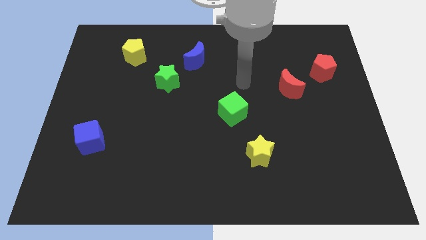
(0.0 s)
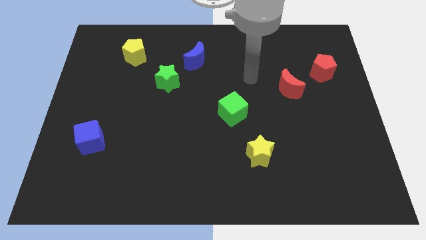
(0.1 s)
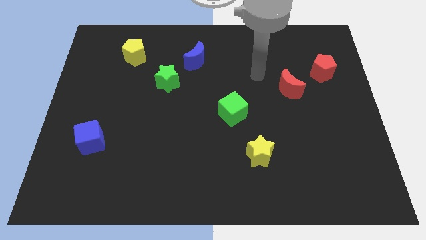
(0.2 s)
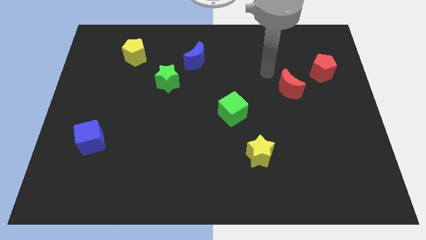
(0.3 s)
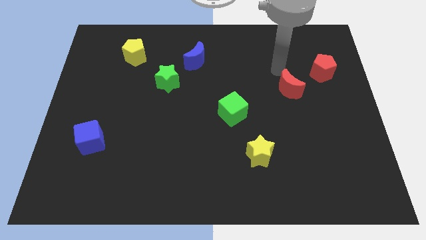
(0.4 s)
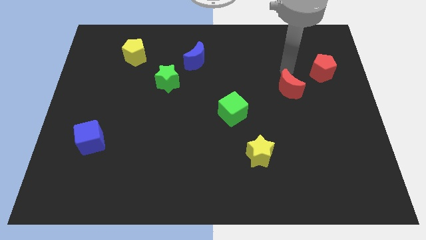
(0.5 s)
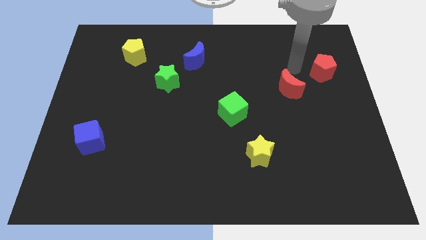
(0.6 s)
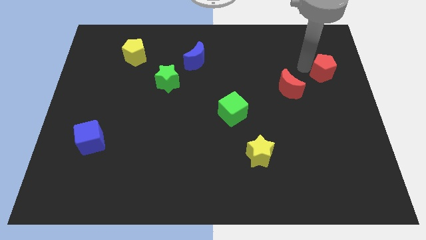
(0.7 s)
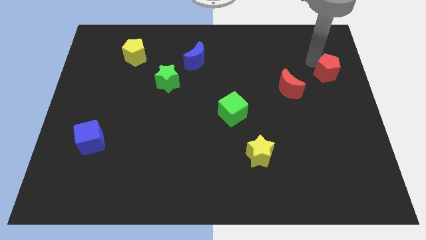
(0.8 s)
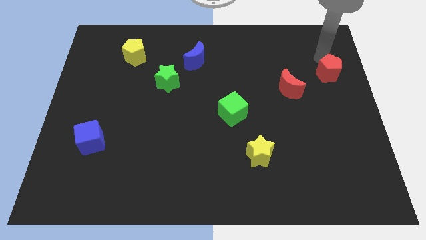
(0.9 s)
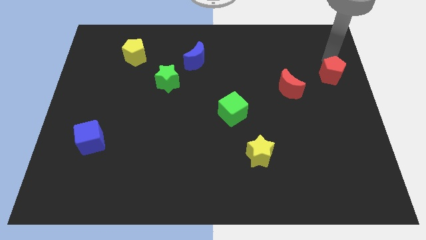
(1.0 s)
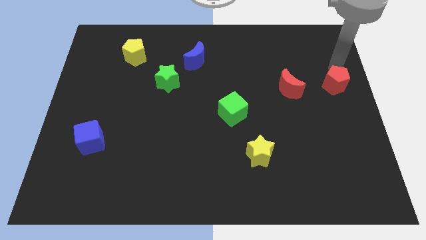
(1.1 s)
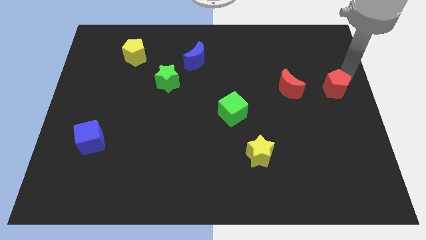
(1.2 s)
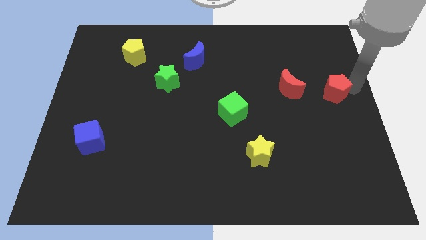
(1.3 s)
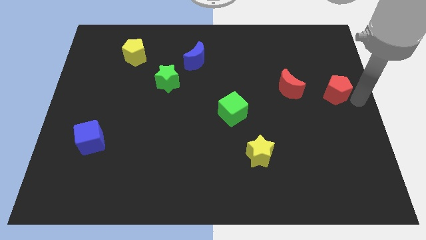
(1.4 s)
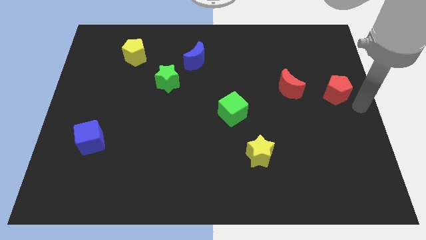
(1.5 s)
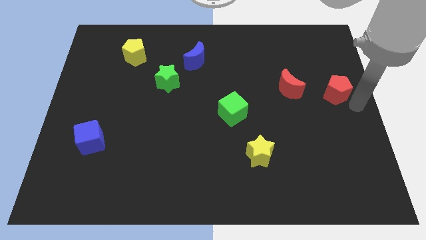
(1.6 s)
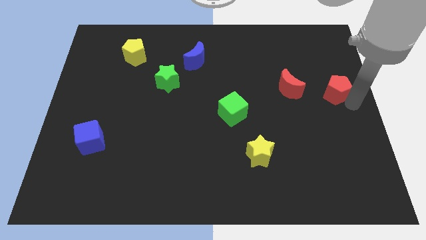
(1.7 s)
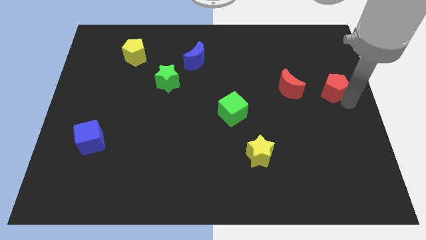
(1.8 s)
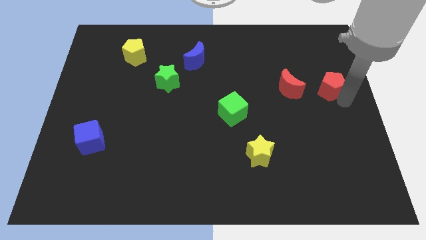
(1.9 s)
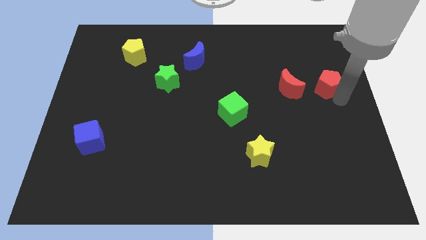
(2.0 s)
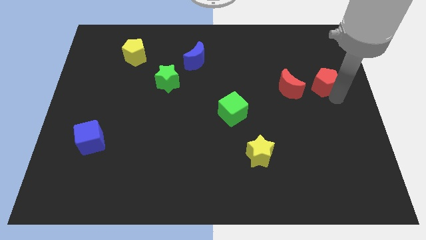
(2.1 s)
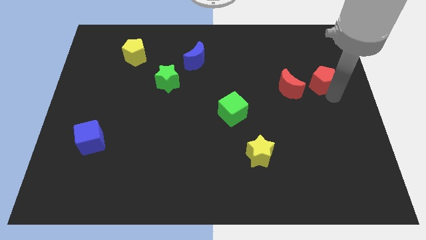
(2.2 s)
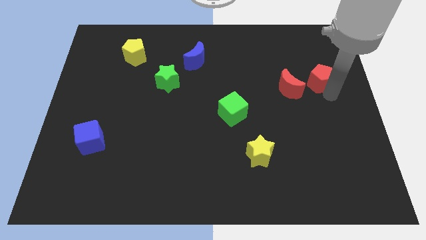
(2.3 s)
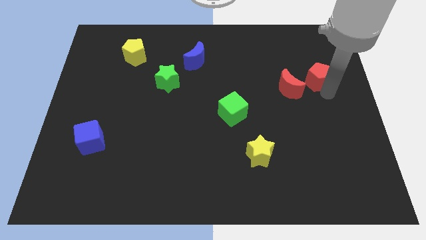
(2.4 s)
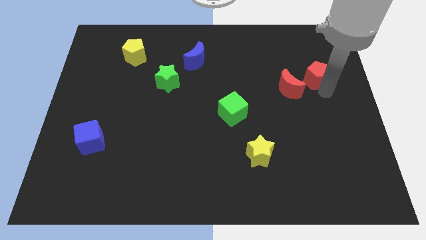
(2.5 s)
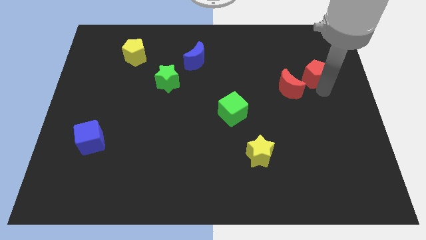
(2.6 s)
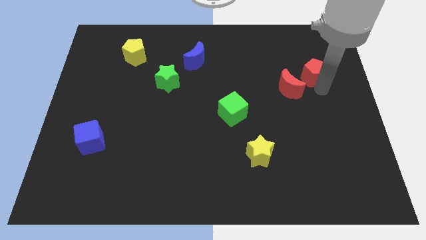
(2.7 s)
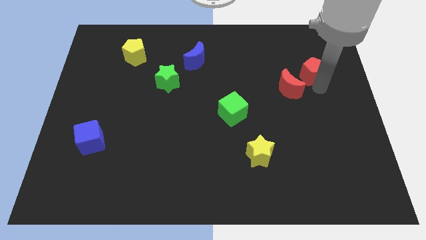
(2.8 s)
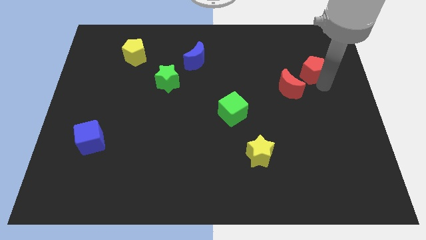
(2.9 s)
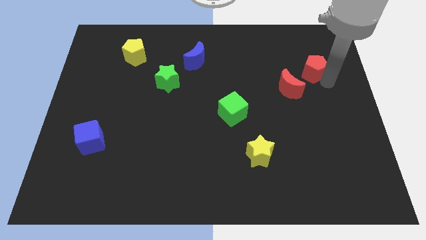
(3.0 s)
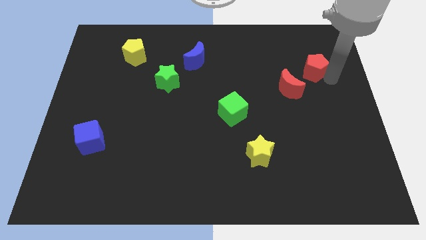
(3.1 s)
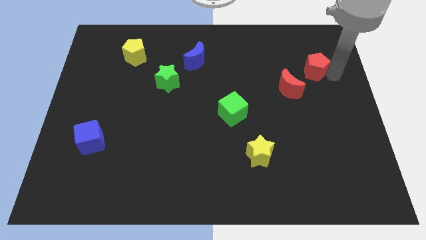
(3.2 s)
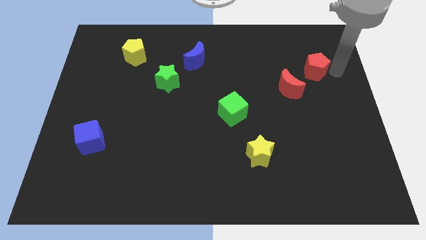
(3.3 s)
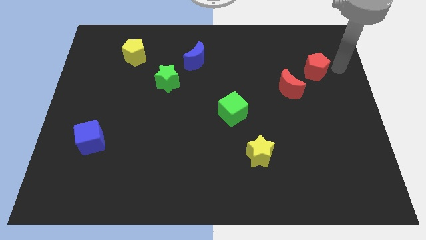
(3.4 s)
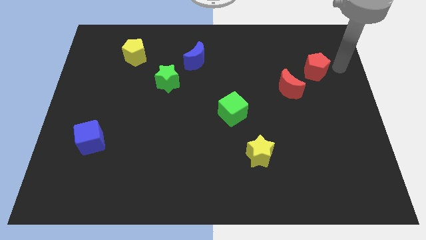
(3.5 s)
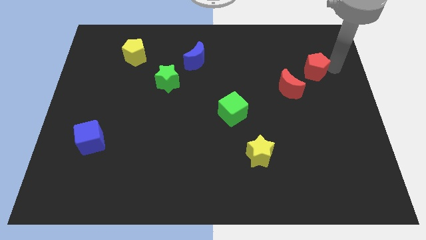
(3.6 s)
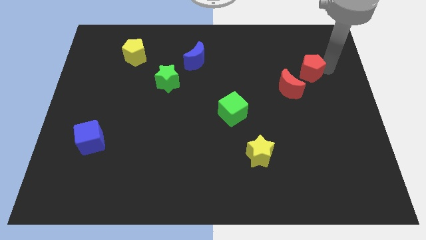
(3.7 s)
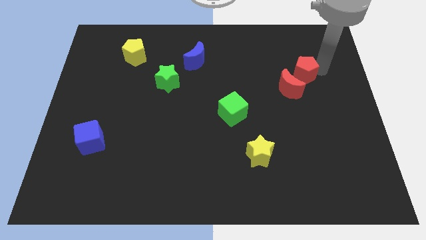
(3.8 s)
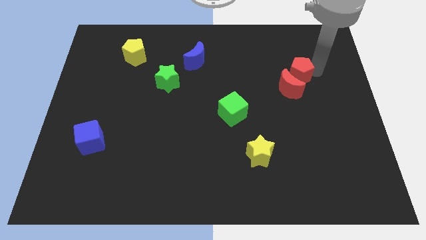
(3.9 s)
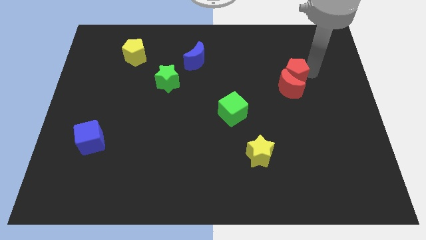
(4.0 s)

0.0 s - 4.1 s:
push the red pentagon left a little bit

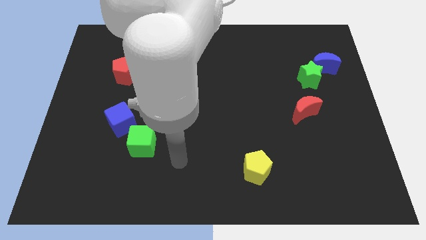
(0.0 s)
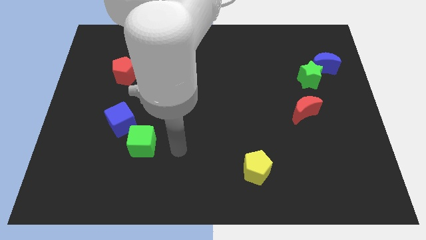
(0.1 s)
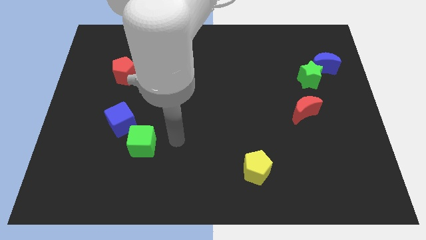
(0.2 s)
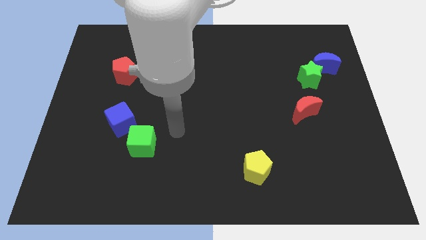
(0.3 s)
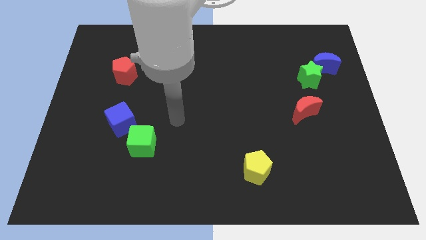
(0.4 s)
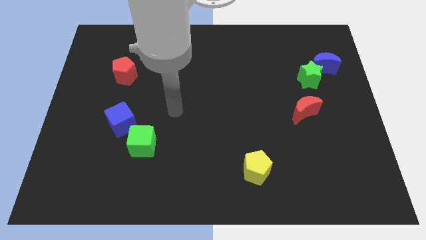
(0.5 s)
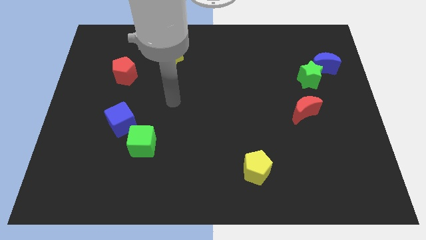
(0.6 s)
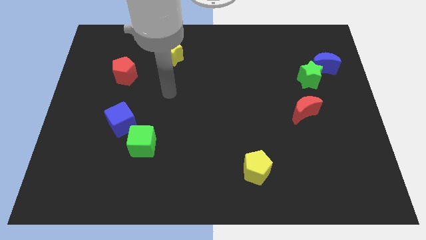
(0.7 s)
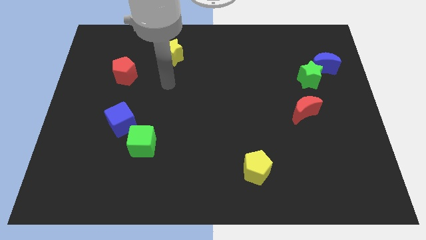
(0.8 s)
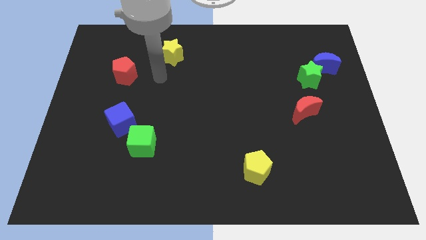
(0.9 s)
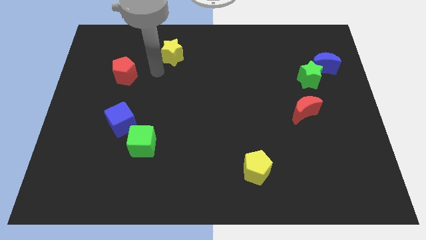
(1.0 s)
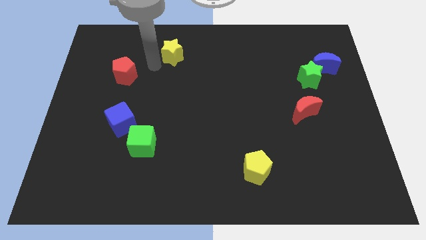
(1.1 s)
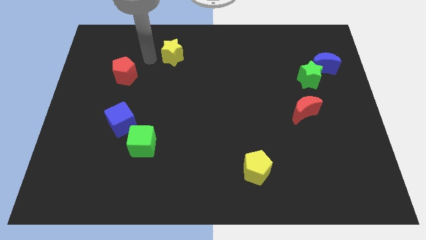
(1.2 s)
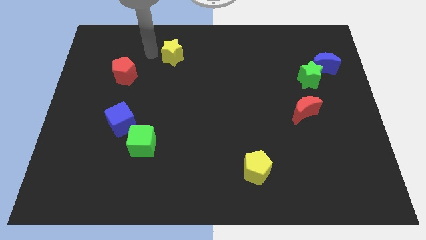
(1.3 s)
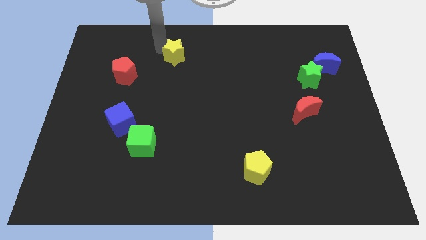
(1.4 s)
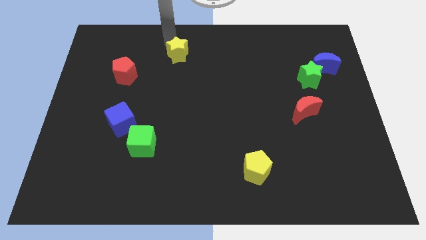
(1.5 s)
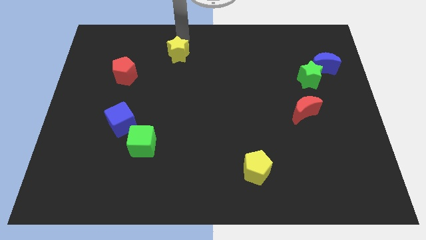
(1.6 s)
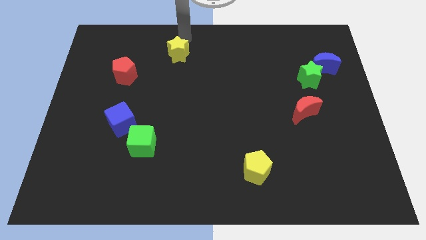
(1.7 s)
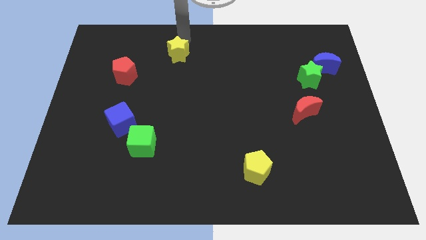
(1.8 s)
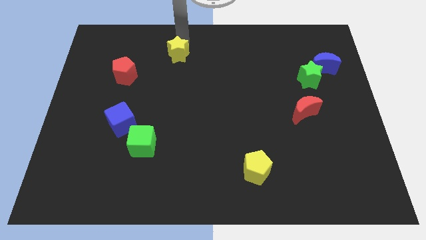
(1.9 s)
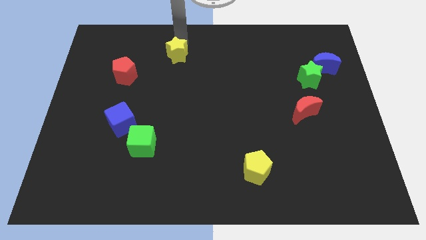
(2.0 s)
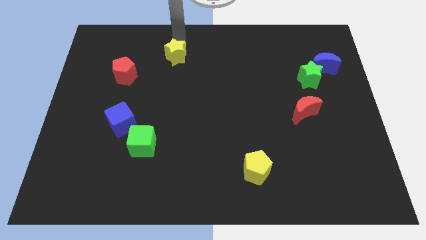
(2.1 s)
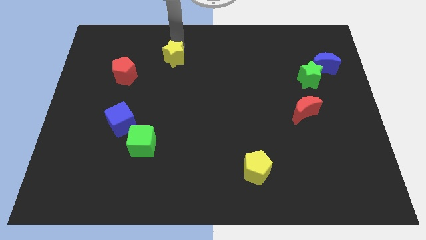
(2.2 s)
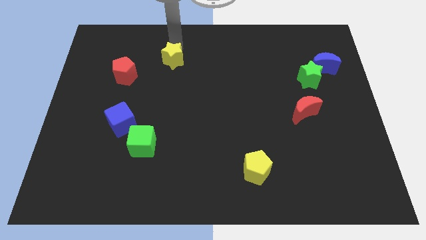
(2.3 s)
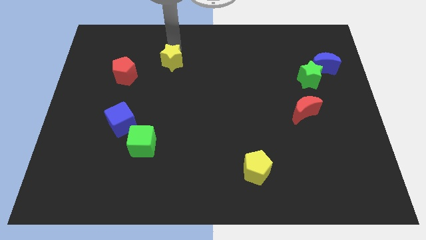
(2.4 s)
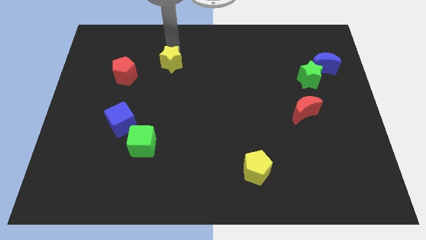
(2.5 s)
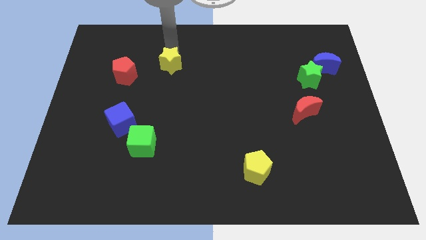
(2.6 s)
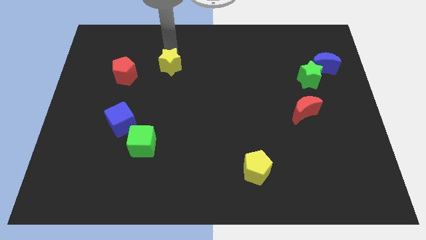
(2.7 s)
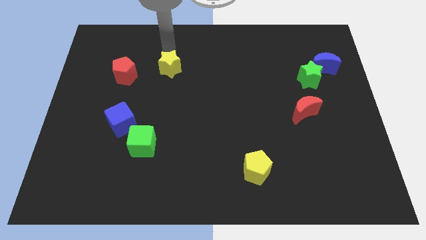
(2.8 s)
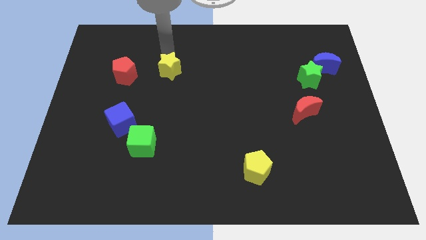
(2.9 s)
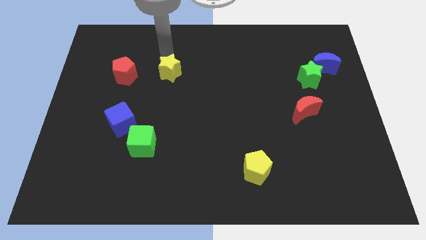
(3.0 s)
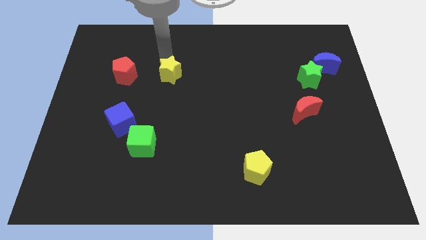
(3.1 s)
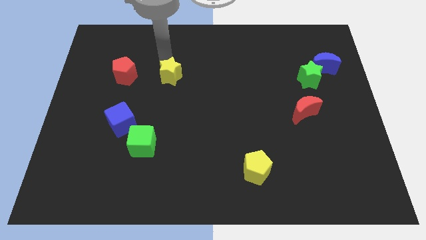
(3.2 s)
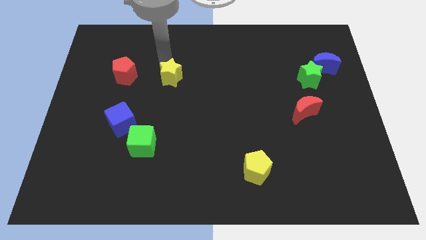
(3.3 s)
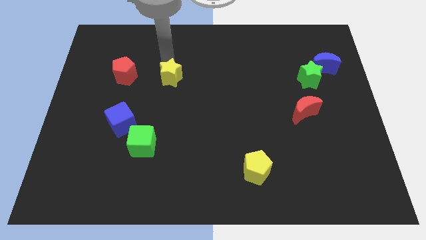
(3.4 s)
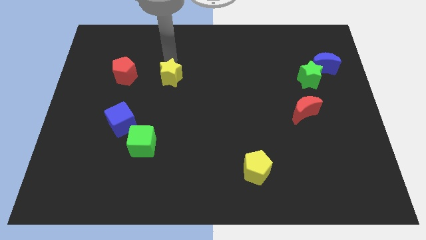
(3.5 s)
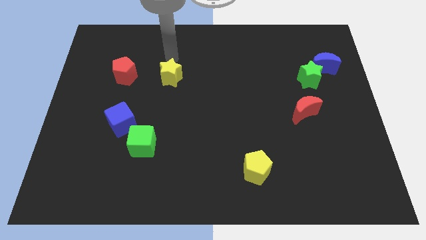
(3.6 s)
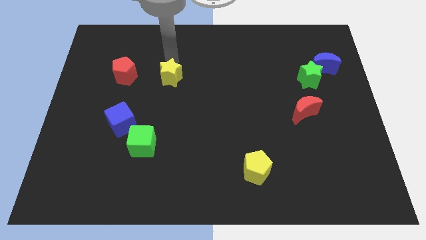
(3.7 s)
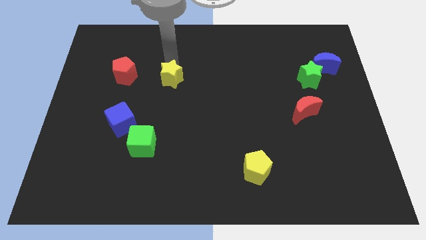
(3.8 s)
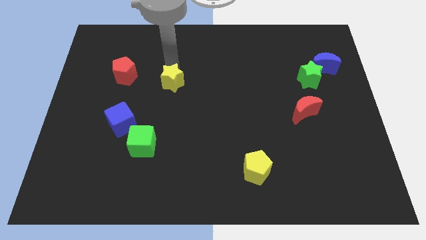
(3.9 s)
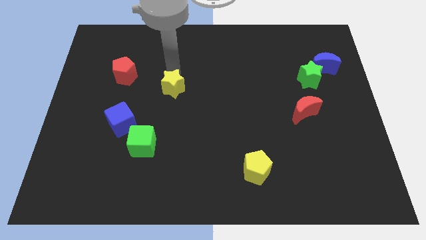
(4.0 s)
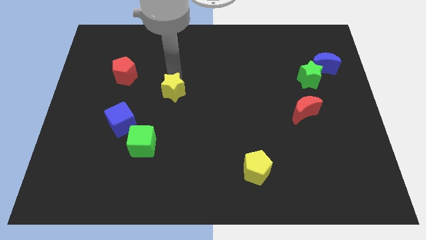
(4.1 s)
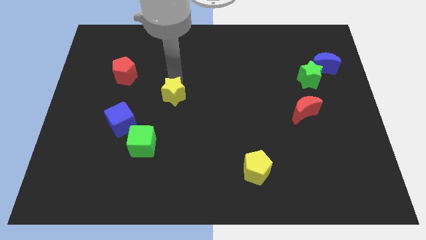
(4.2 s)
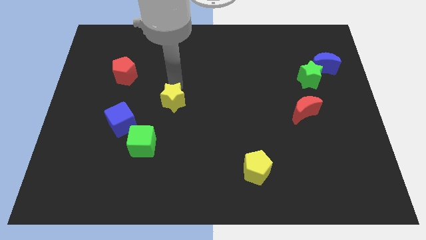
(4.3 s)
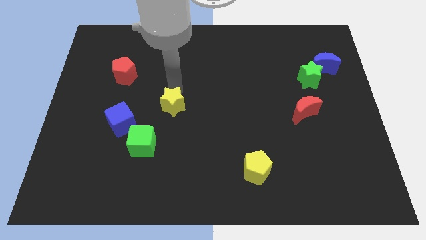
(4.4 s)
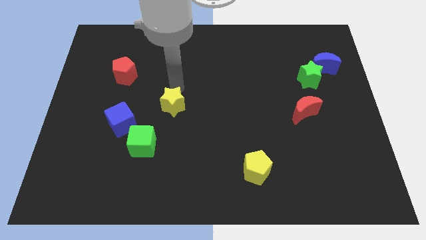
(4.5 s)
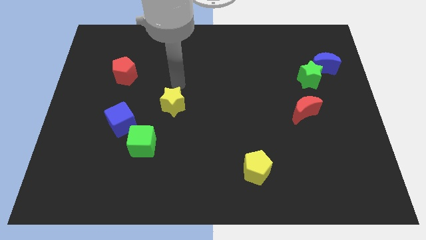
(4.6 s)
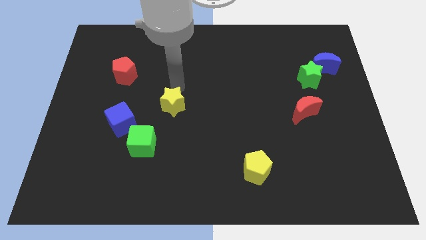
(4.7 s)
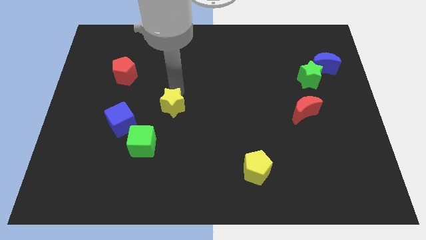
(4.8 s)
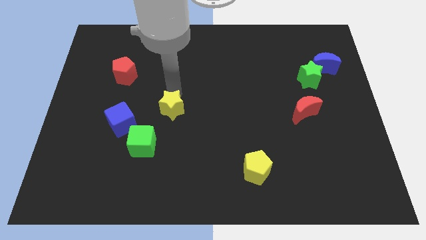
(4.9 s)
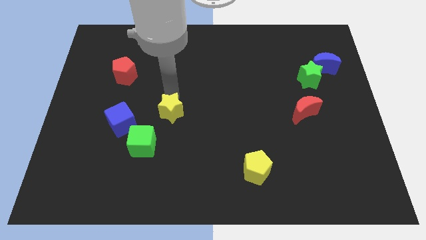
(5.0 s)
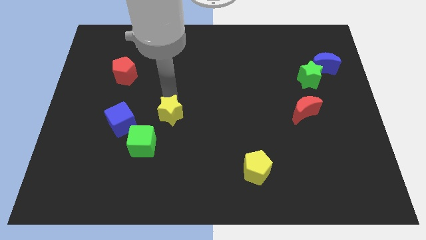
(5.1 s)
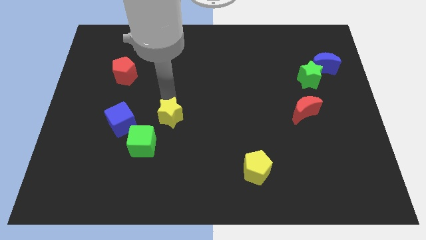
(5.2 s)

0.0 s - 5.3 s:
slide the yellow star downwards
